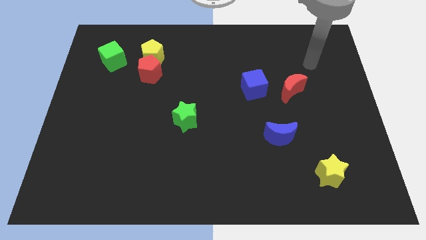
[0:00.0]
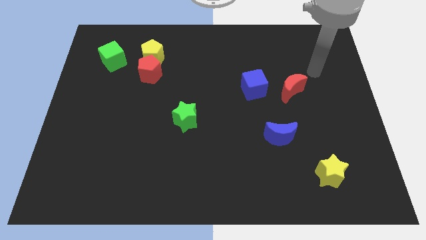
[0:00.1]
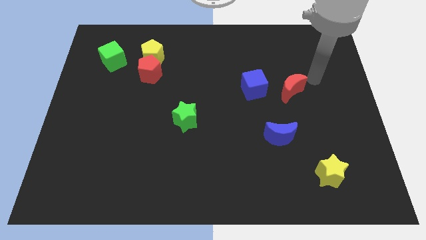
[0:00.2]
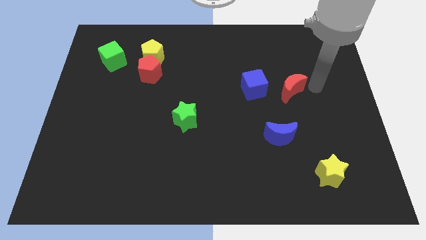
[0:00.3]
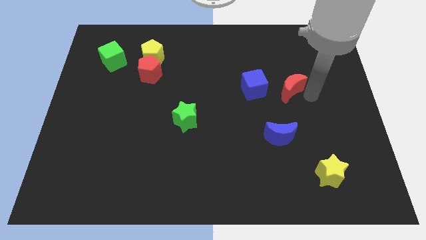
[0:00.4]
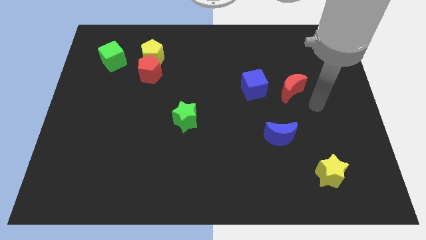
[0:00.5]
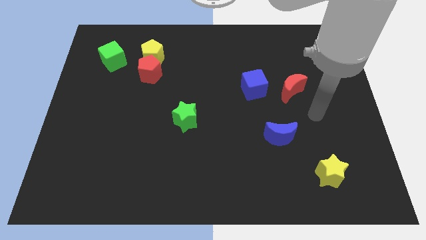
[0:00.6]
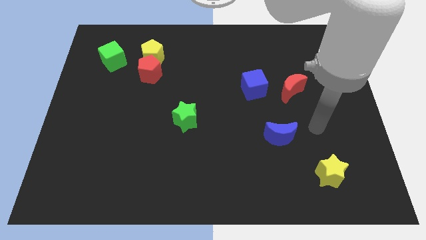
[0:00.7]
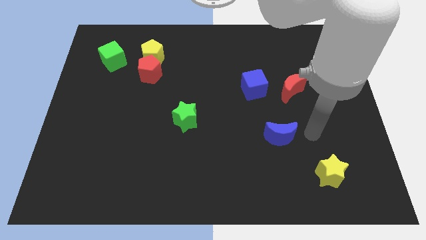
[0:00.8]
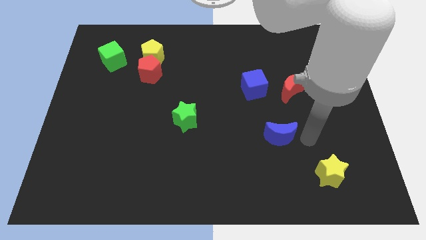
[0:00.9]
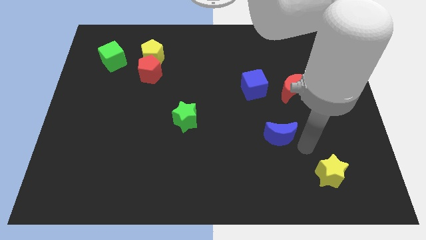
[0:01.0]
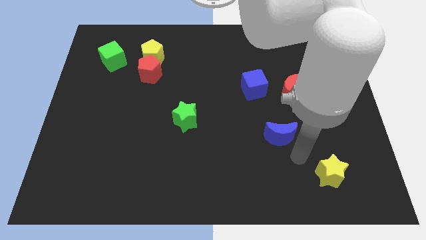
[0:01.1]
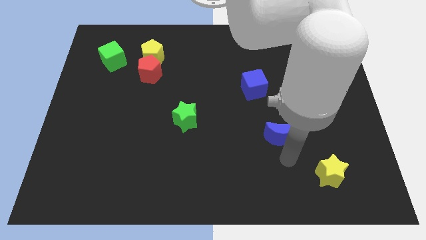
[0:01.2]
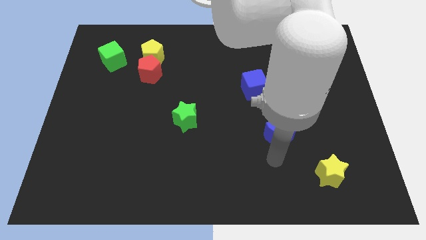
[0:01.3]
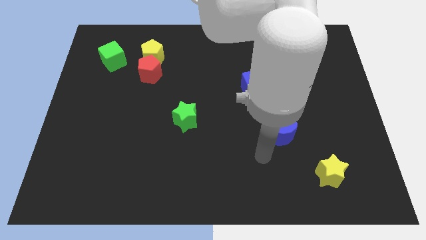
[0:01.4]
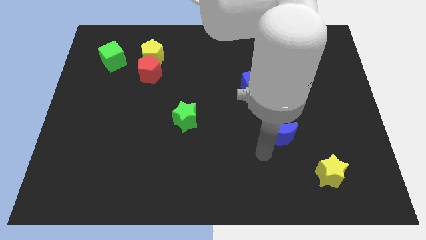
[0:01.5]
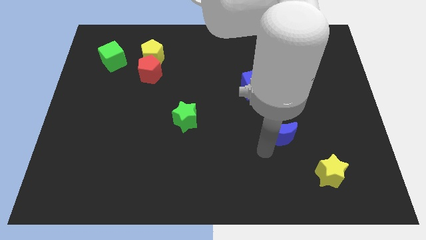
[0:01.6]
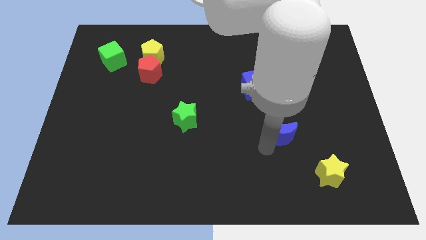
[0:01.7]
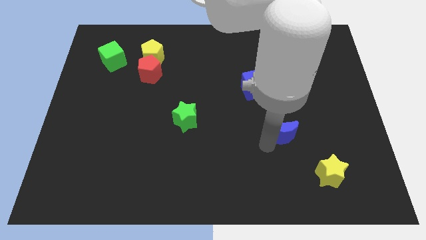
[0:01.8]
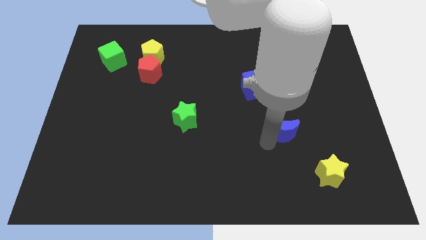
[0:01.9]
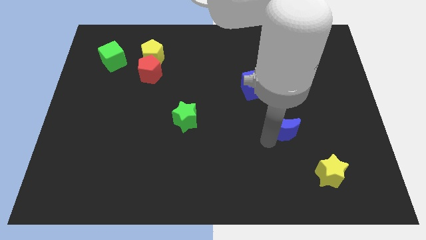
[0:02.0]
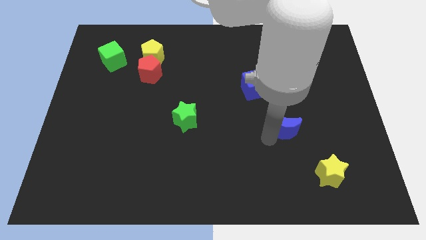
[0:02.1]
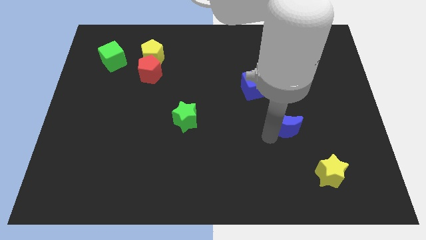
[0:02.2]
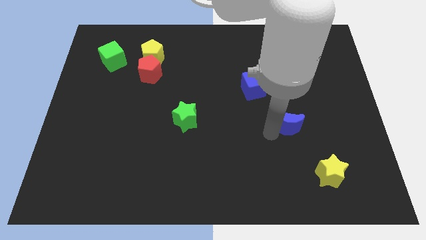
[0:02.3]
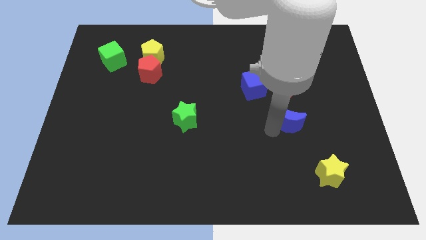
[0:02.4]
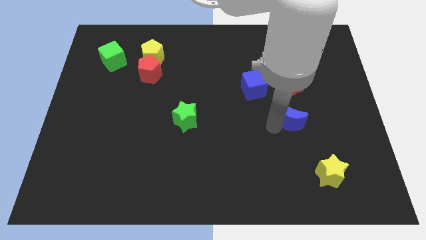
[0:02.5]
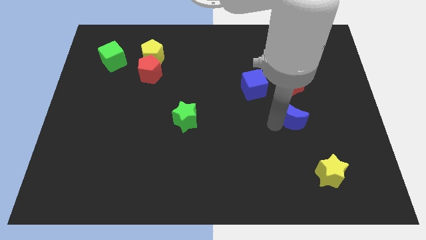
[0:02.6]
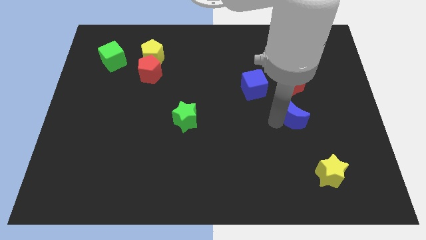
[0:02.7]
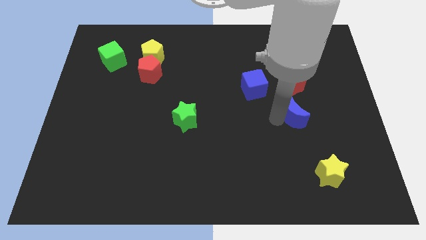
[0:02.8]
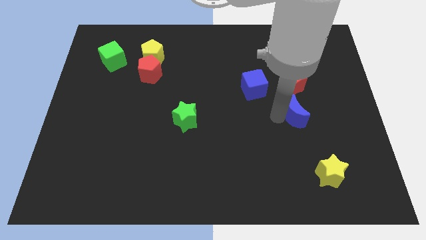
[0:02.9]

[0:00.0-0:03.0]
push the blue moon upwards and then right a bit

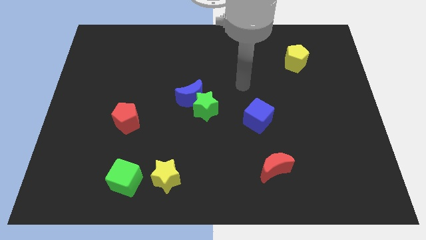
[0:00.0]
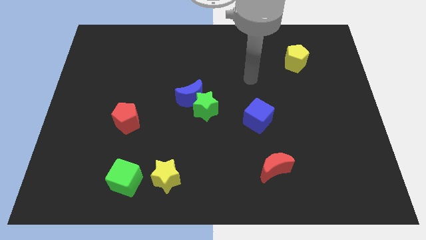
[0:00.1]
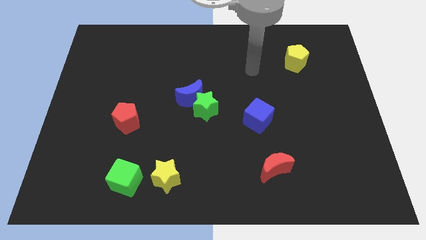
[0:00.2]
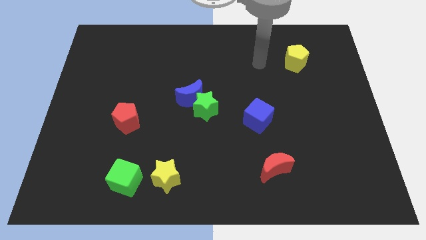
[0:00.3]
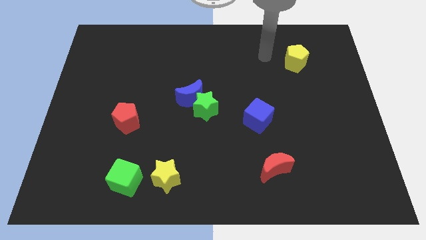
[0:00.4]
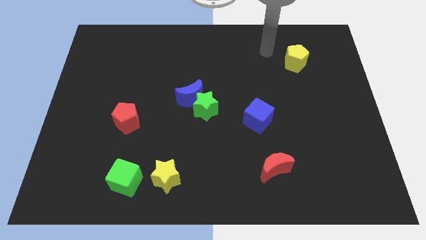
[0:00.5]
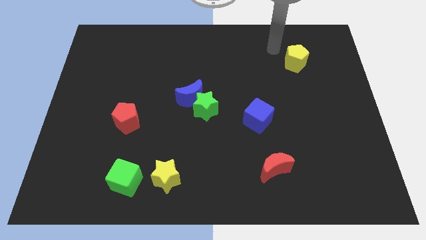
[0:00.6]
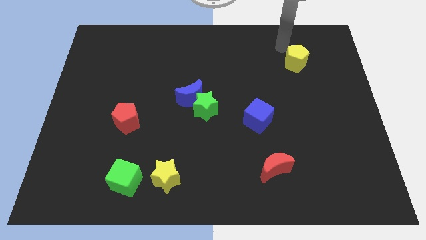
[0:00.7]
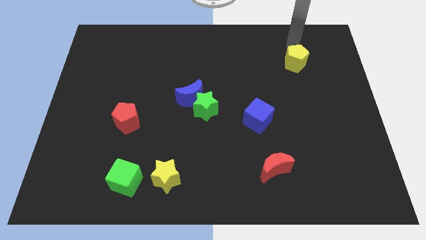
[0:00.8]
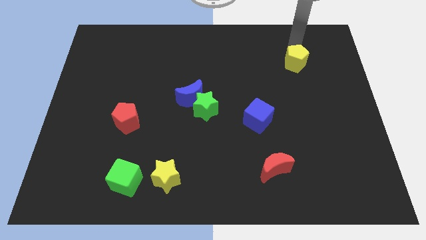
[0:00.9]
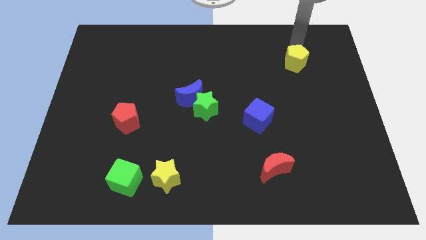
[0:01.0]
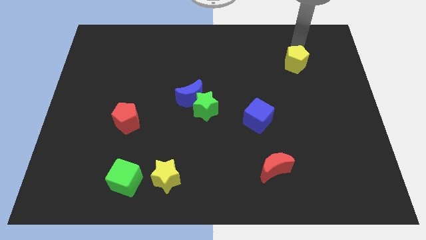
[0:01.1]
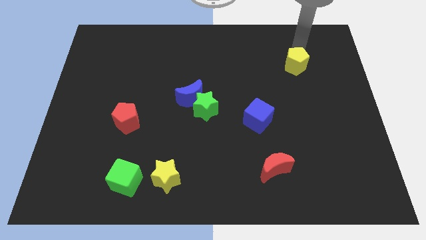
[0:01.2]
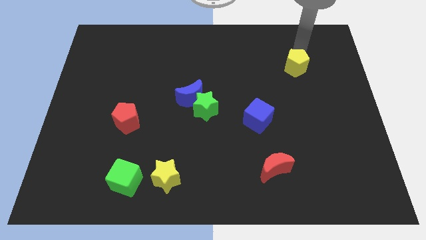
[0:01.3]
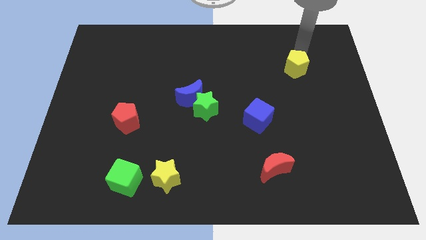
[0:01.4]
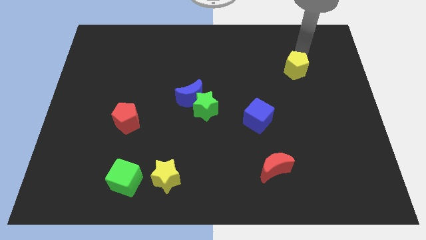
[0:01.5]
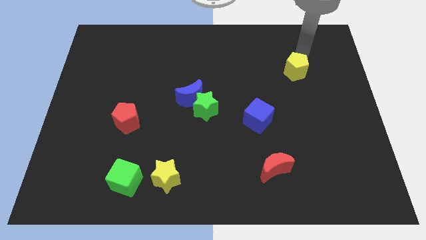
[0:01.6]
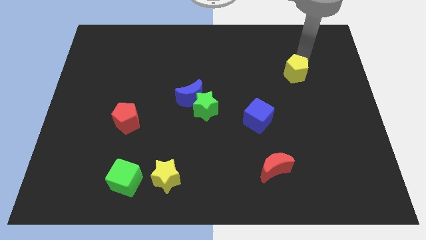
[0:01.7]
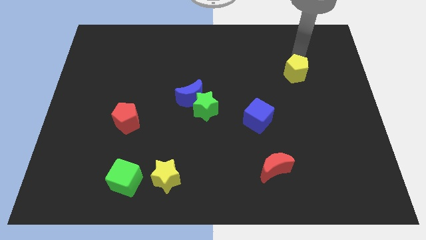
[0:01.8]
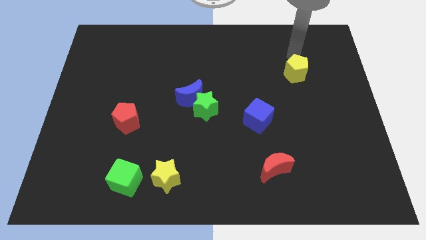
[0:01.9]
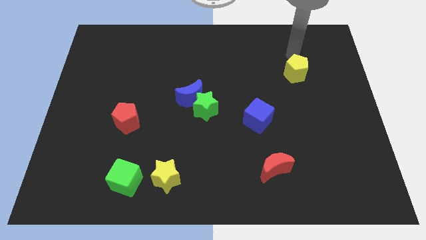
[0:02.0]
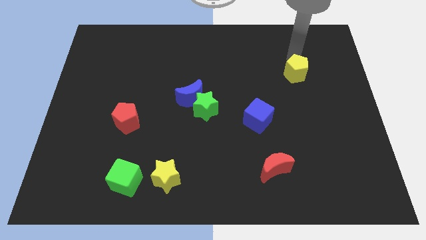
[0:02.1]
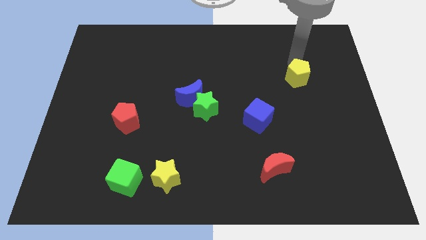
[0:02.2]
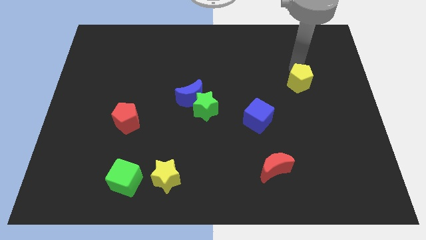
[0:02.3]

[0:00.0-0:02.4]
push the yellow pentagon down a bit

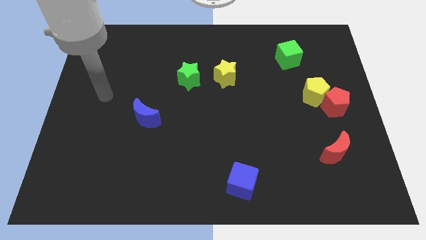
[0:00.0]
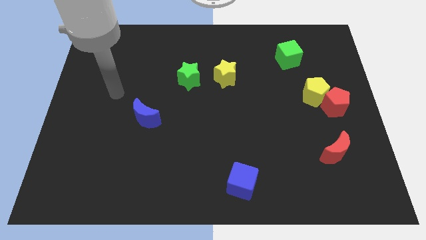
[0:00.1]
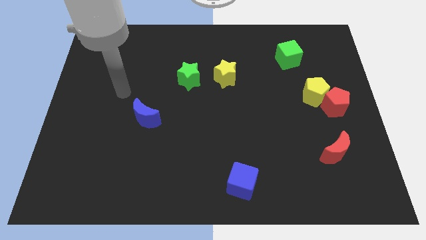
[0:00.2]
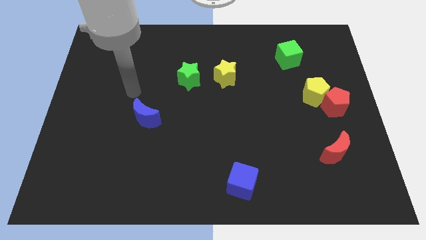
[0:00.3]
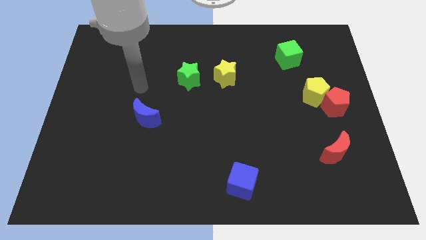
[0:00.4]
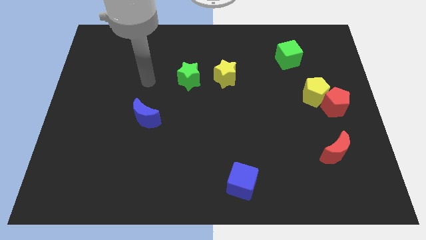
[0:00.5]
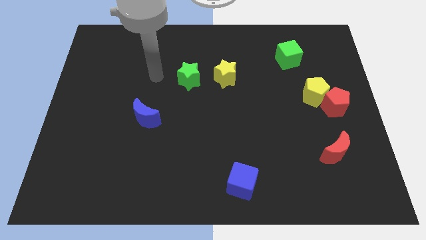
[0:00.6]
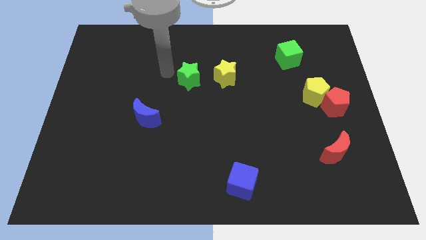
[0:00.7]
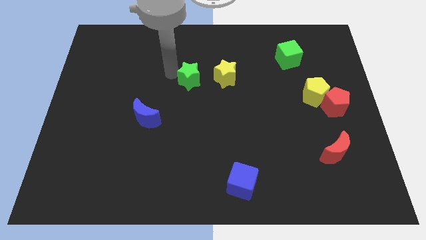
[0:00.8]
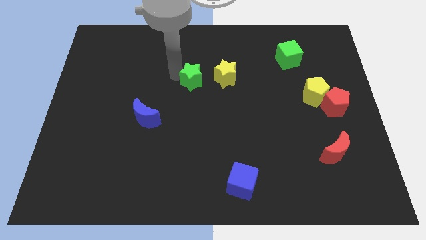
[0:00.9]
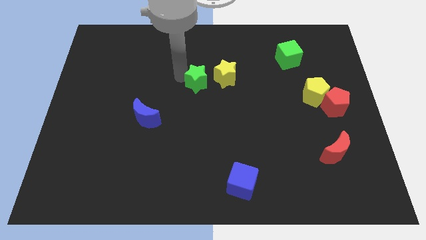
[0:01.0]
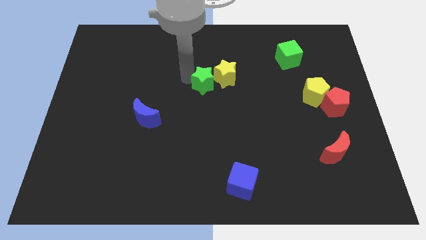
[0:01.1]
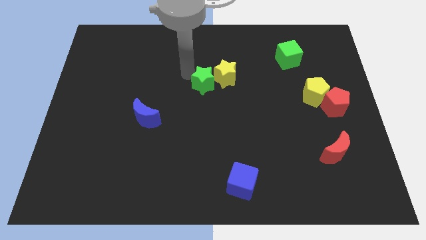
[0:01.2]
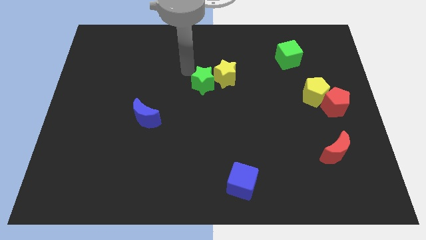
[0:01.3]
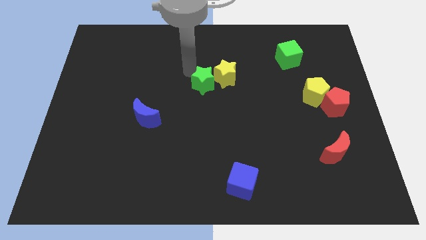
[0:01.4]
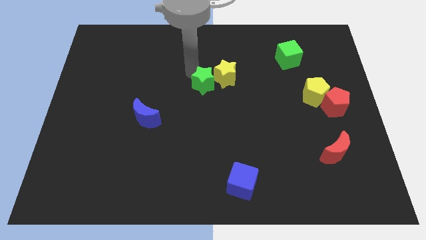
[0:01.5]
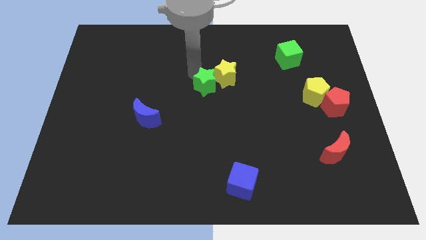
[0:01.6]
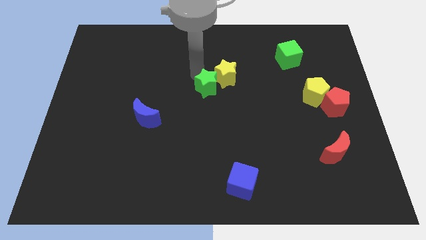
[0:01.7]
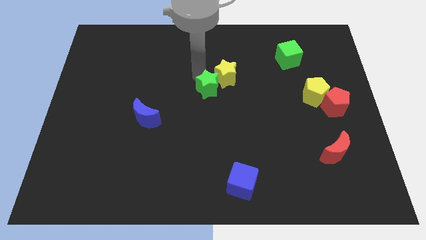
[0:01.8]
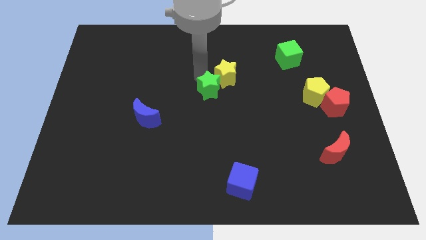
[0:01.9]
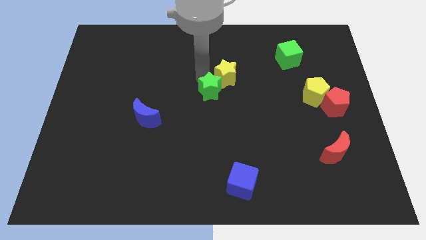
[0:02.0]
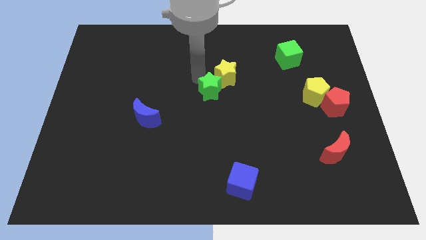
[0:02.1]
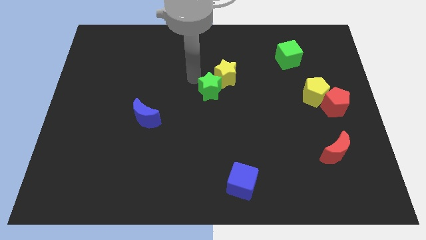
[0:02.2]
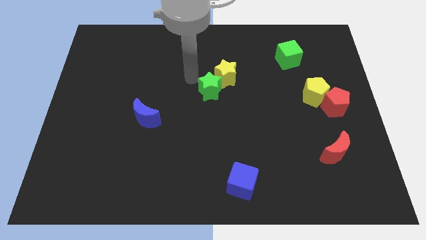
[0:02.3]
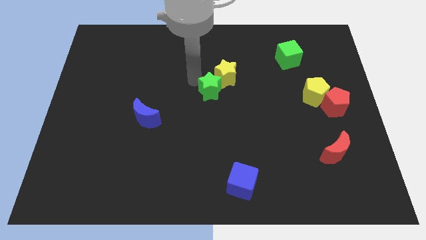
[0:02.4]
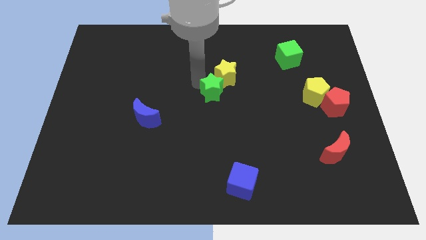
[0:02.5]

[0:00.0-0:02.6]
push the green star diagonally down and right a little bit
